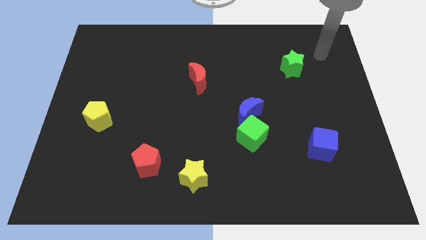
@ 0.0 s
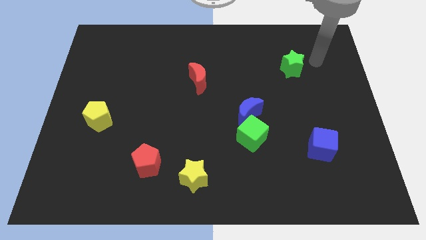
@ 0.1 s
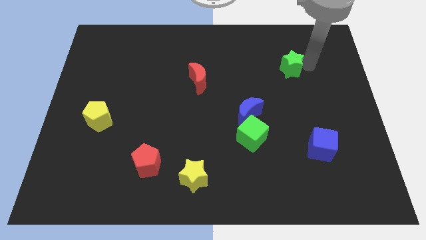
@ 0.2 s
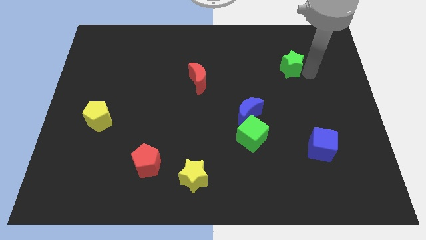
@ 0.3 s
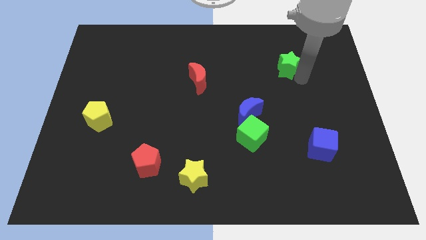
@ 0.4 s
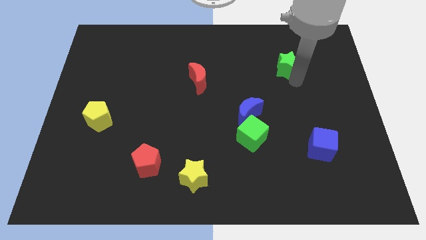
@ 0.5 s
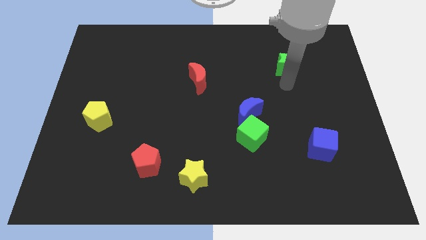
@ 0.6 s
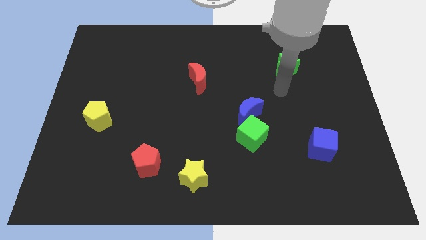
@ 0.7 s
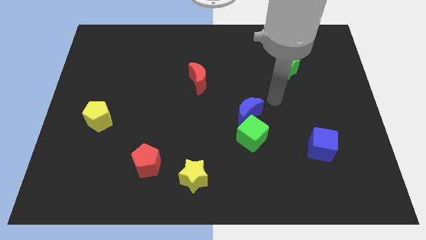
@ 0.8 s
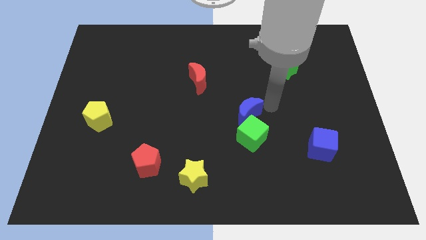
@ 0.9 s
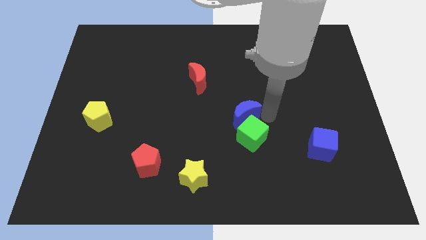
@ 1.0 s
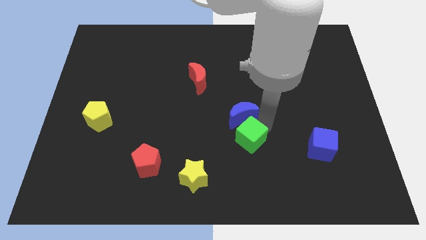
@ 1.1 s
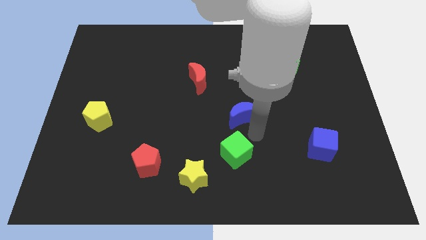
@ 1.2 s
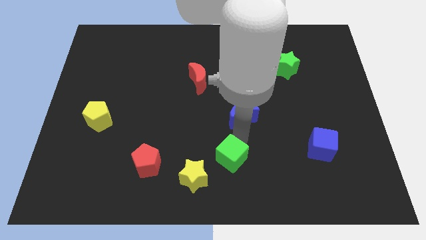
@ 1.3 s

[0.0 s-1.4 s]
move the blue moon away from the green cube

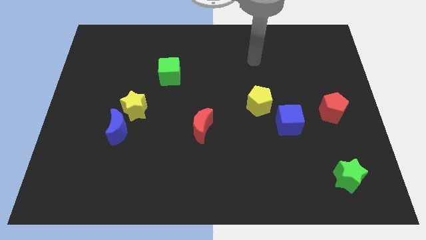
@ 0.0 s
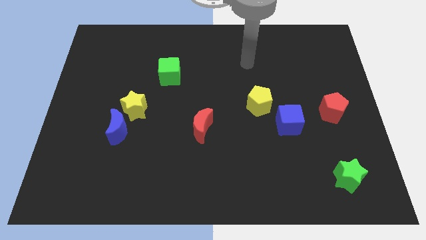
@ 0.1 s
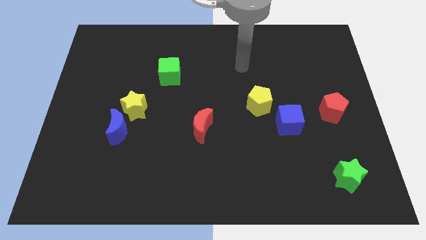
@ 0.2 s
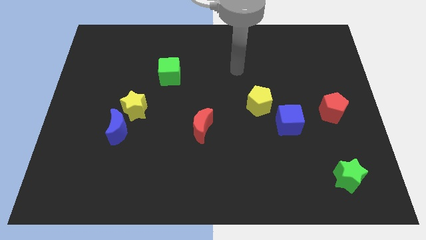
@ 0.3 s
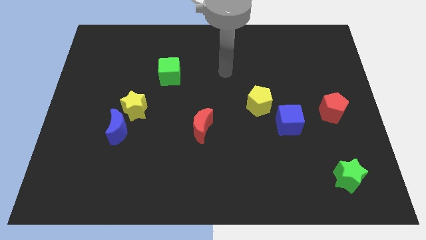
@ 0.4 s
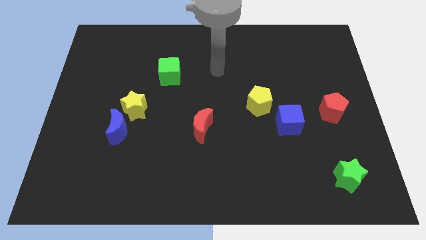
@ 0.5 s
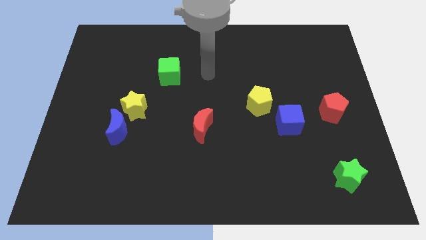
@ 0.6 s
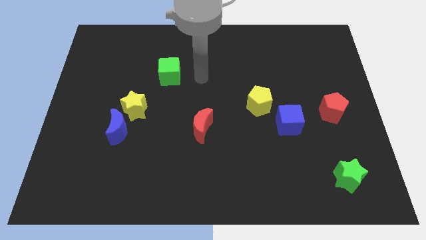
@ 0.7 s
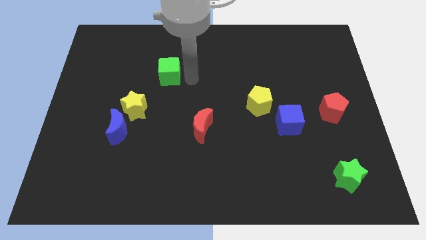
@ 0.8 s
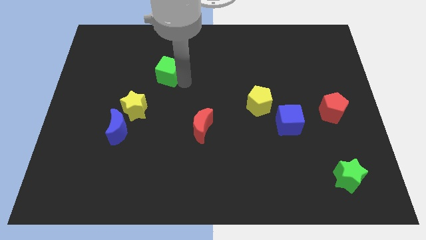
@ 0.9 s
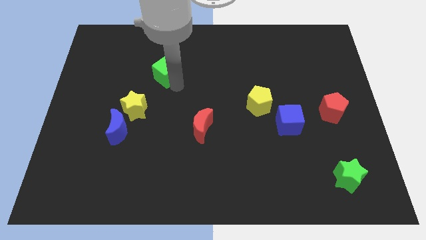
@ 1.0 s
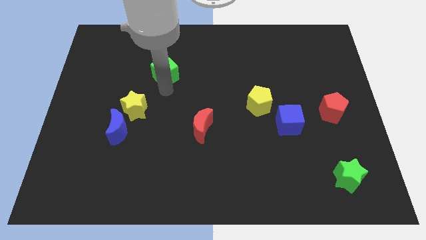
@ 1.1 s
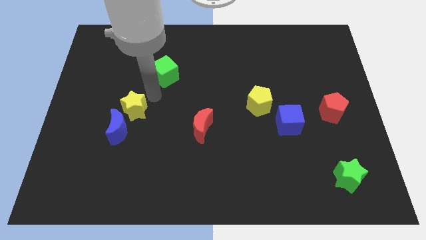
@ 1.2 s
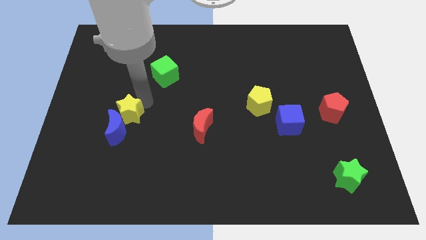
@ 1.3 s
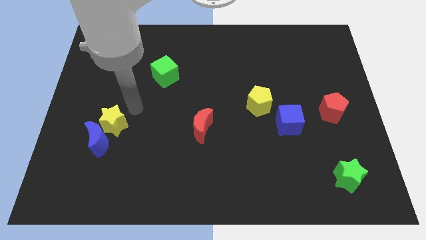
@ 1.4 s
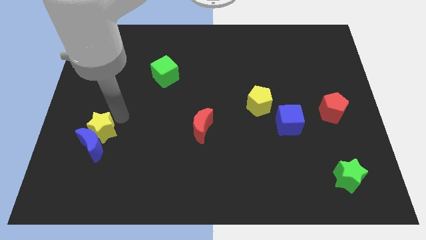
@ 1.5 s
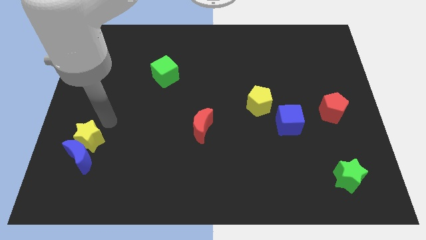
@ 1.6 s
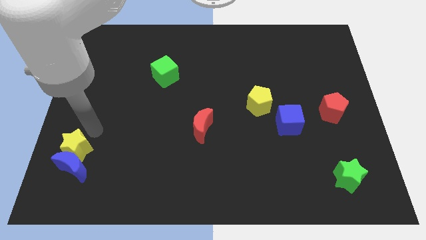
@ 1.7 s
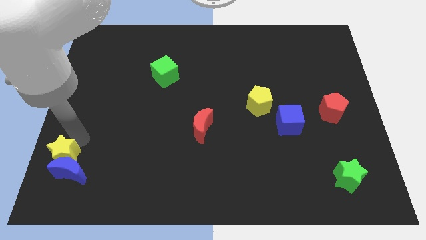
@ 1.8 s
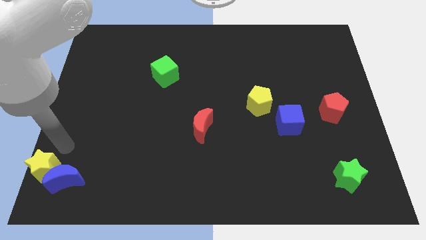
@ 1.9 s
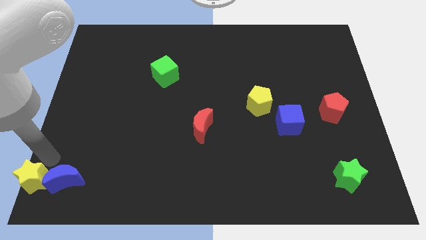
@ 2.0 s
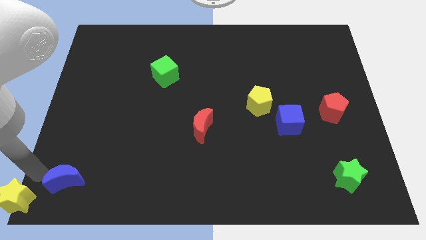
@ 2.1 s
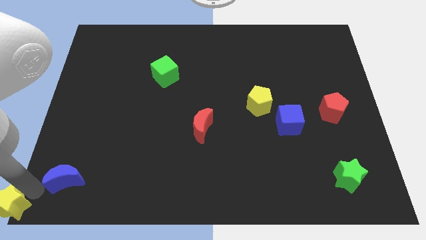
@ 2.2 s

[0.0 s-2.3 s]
move the blue moon away from the yellow star

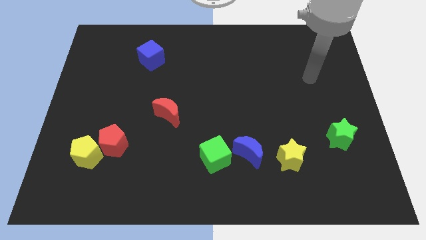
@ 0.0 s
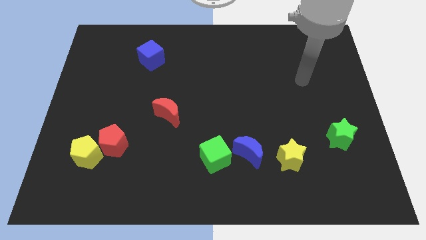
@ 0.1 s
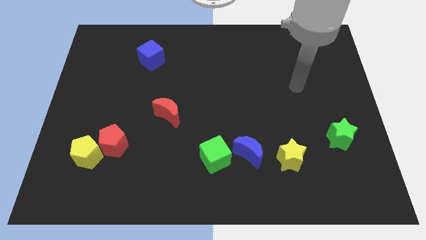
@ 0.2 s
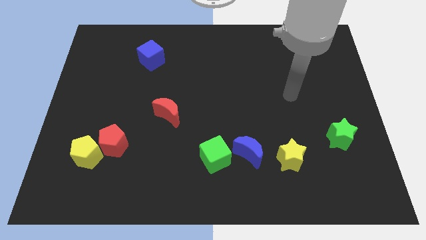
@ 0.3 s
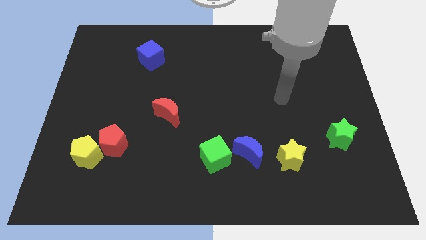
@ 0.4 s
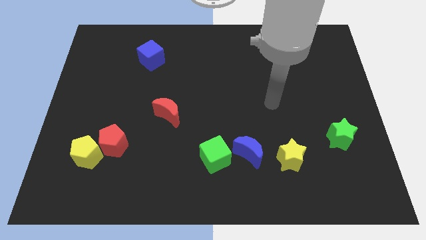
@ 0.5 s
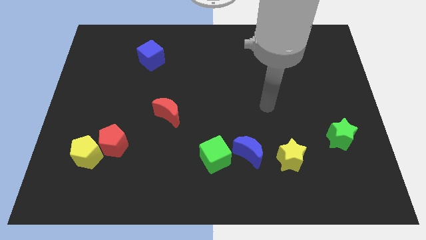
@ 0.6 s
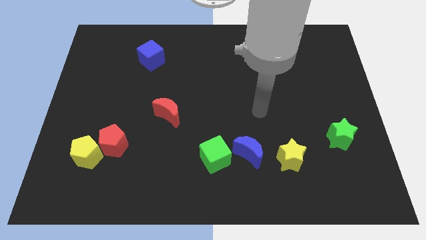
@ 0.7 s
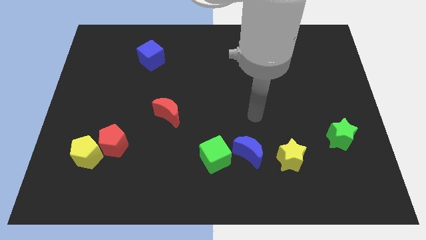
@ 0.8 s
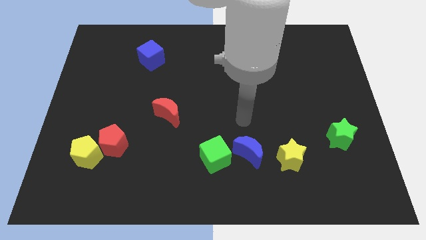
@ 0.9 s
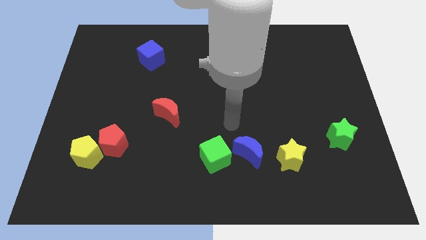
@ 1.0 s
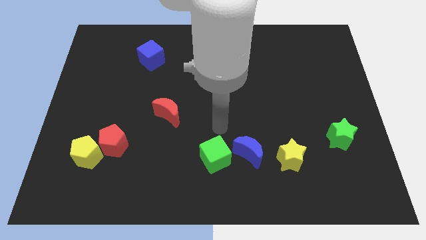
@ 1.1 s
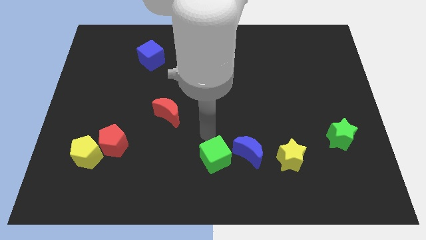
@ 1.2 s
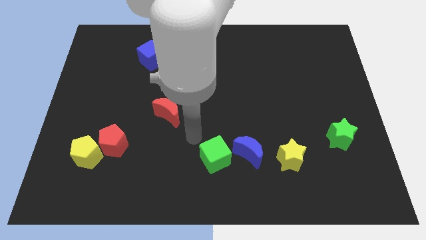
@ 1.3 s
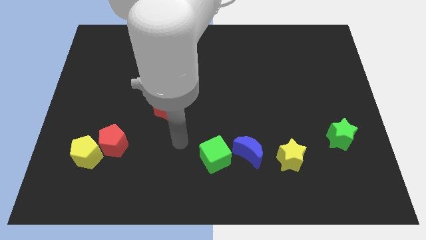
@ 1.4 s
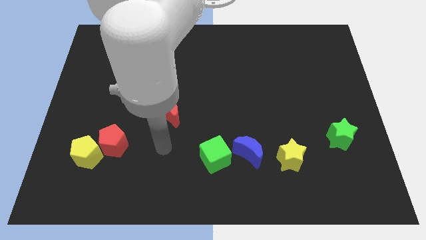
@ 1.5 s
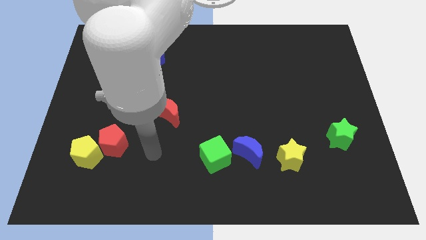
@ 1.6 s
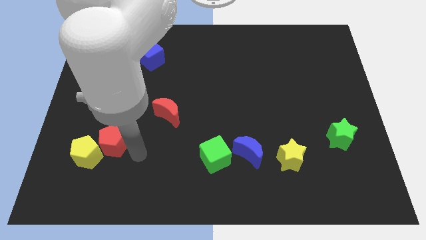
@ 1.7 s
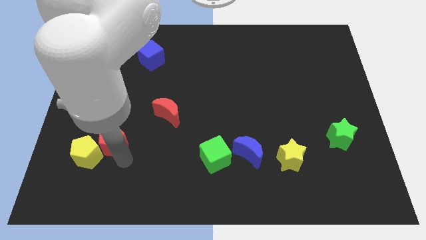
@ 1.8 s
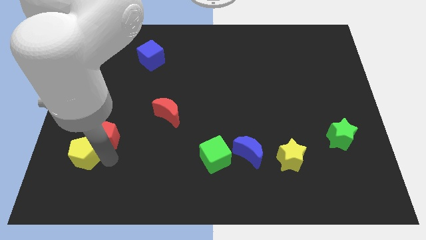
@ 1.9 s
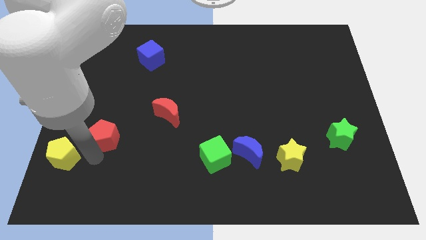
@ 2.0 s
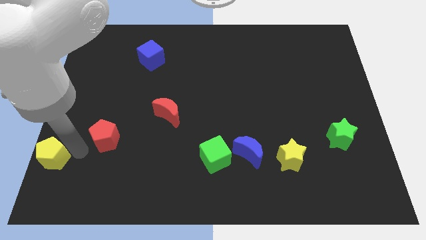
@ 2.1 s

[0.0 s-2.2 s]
pull the red pentagon apart from the yellow pentagon

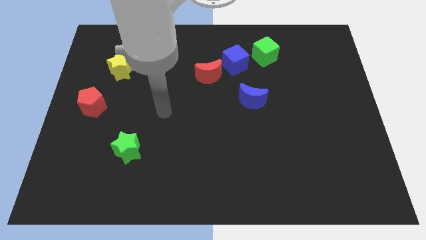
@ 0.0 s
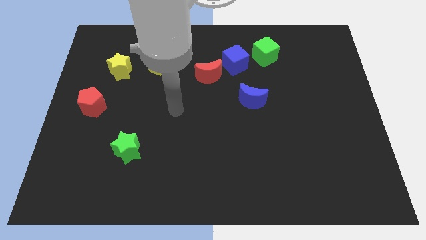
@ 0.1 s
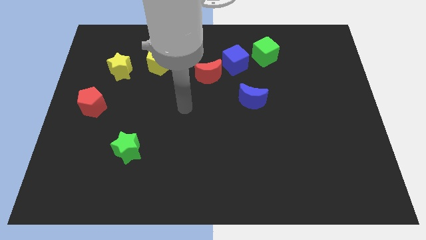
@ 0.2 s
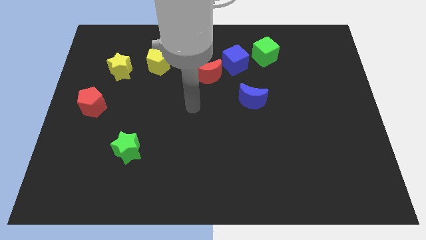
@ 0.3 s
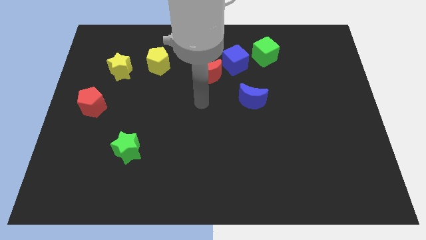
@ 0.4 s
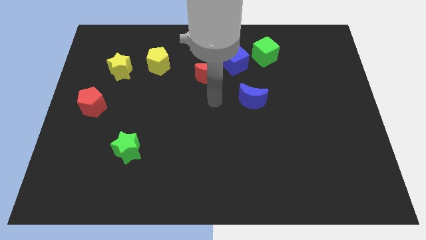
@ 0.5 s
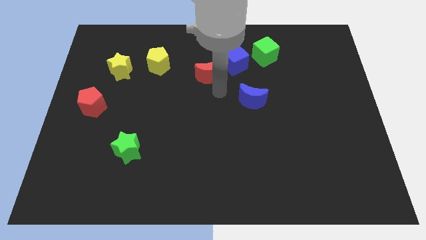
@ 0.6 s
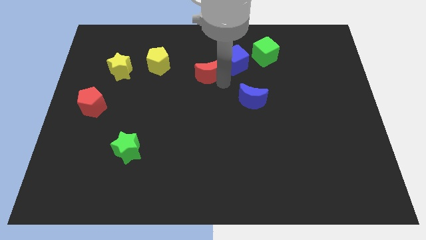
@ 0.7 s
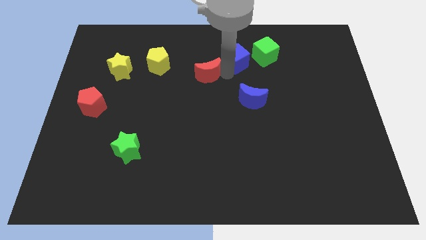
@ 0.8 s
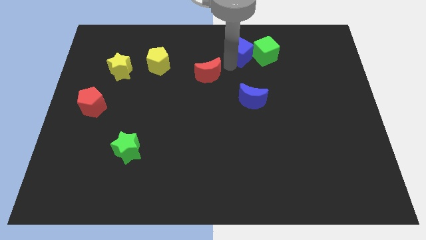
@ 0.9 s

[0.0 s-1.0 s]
pull the red moon apart from the blue cube

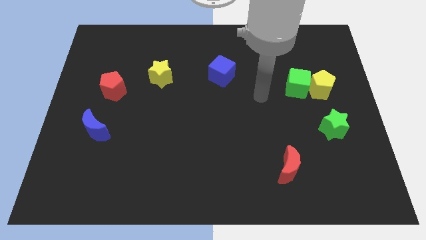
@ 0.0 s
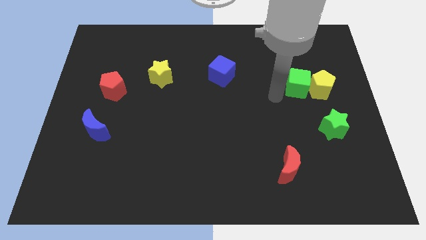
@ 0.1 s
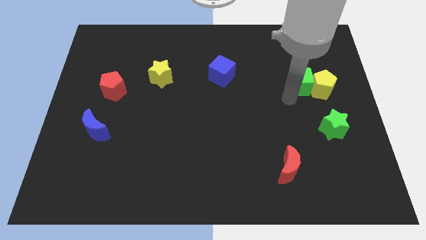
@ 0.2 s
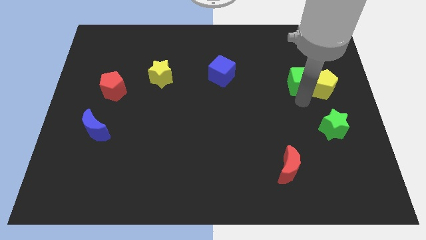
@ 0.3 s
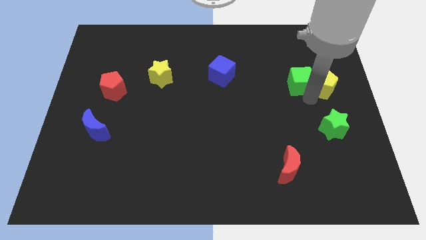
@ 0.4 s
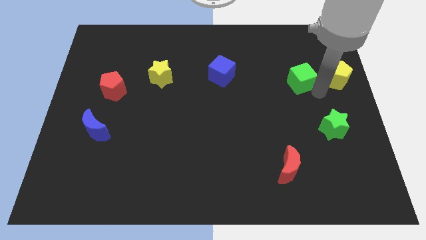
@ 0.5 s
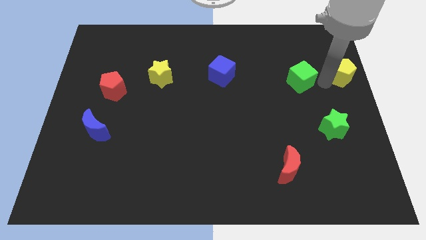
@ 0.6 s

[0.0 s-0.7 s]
pull the green cube apart from the yellow pentagon

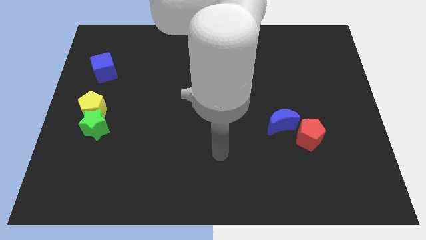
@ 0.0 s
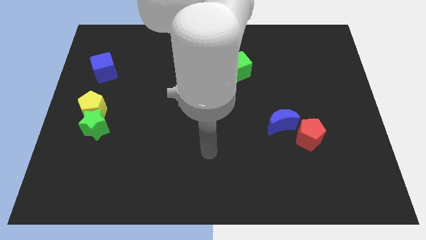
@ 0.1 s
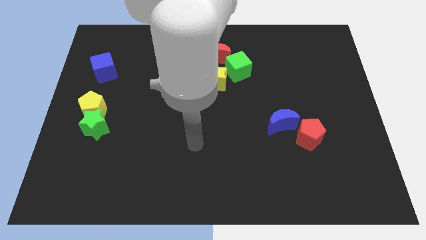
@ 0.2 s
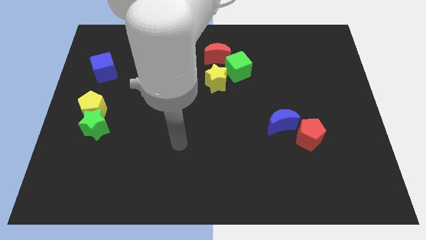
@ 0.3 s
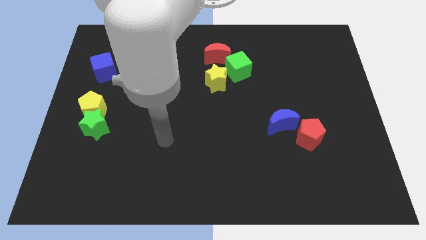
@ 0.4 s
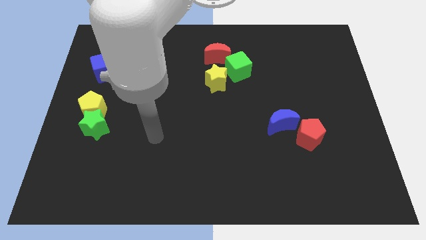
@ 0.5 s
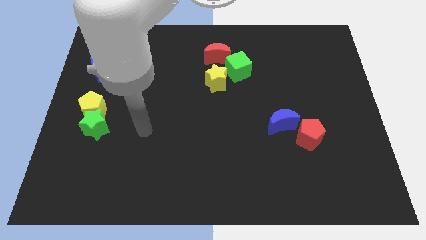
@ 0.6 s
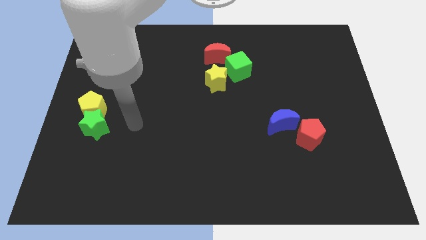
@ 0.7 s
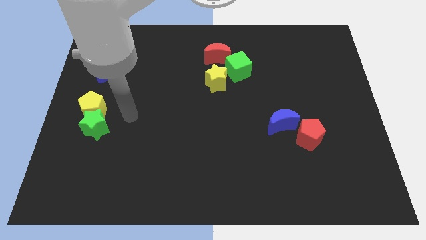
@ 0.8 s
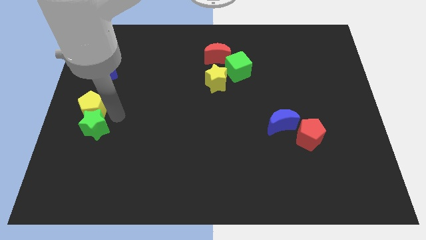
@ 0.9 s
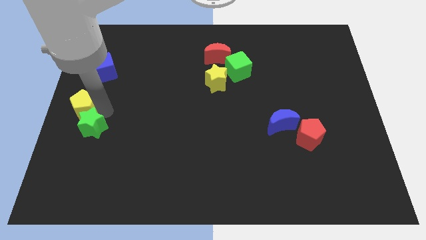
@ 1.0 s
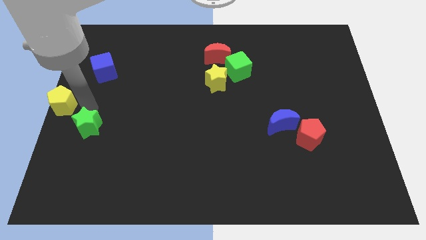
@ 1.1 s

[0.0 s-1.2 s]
pull the green star apart from the yellow pentagon

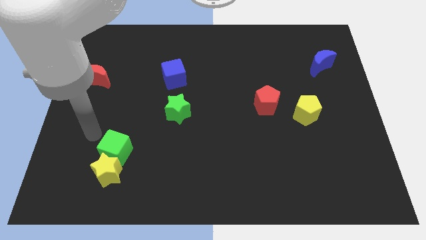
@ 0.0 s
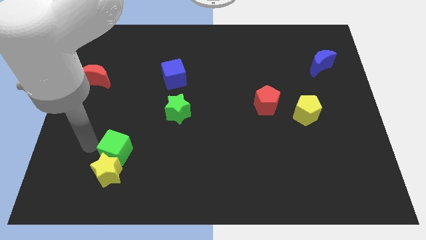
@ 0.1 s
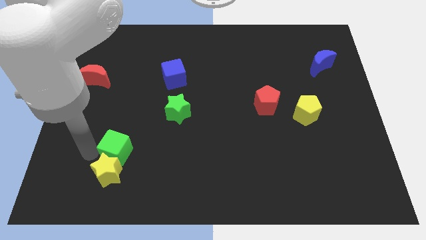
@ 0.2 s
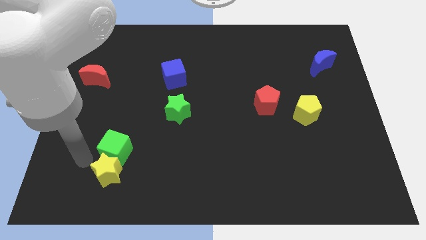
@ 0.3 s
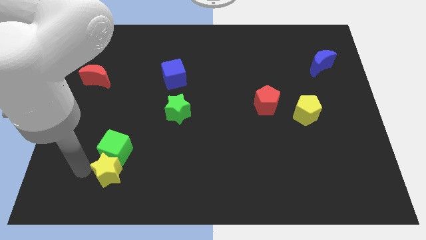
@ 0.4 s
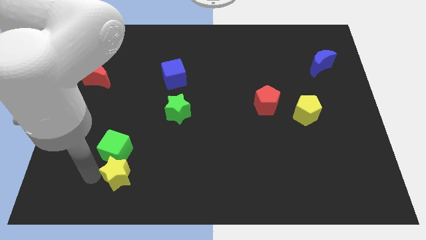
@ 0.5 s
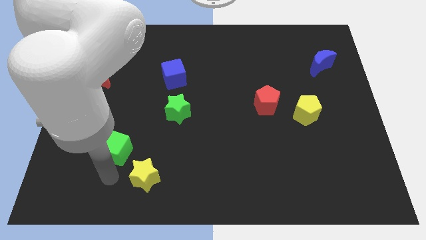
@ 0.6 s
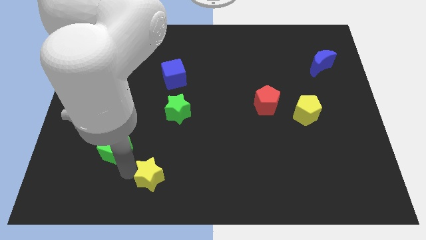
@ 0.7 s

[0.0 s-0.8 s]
separate the green cube from the yellow star
